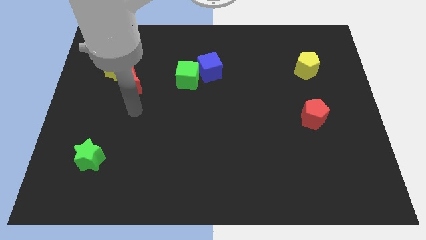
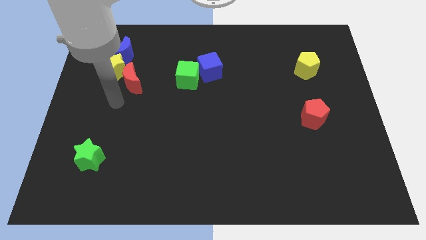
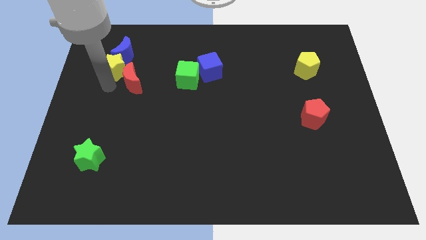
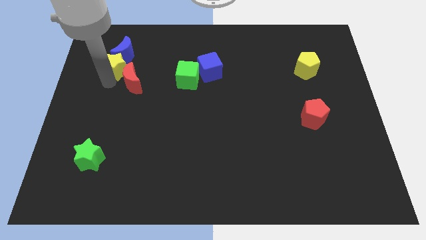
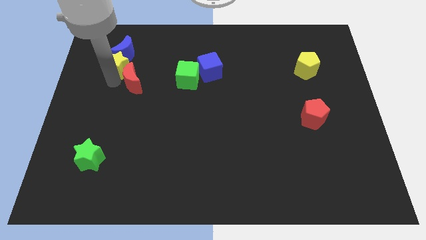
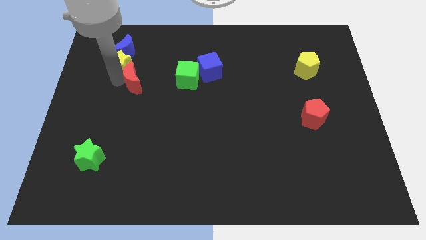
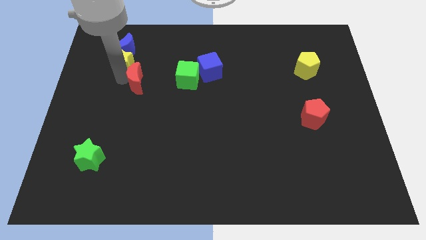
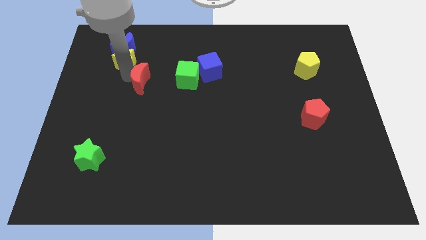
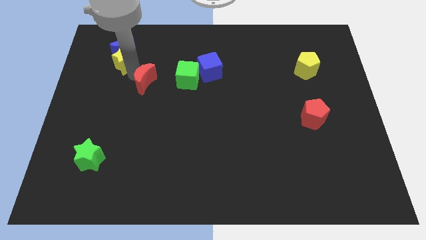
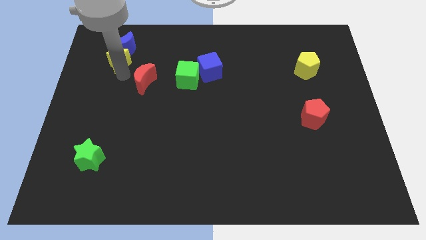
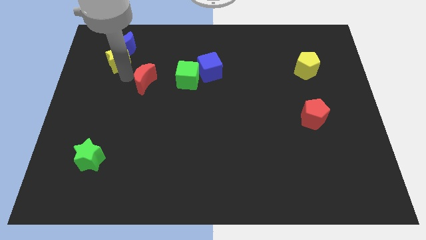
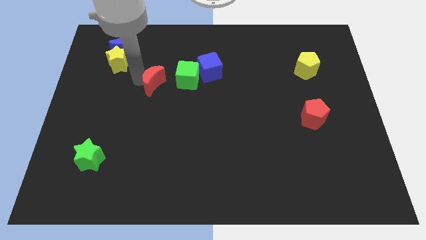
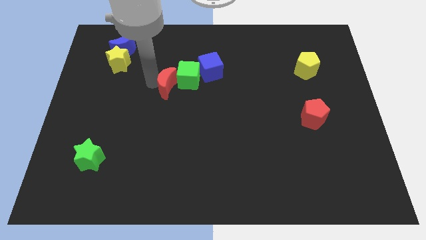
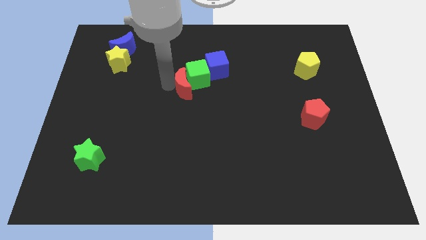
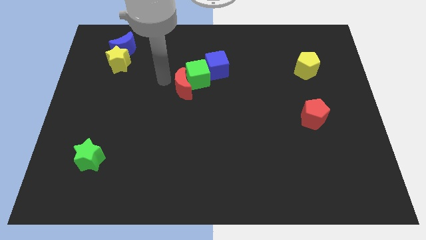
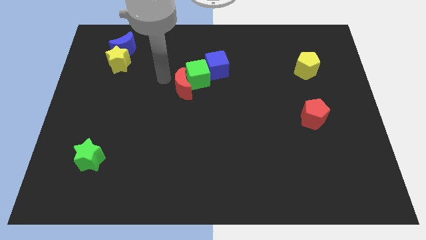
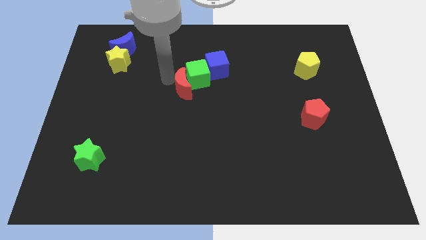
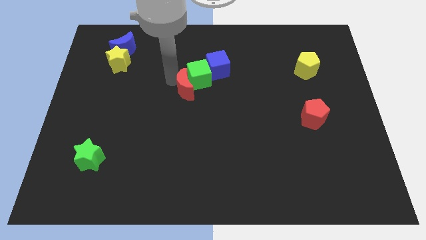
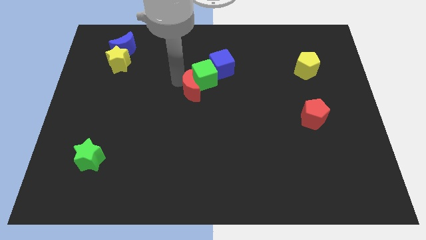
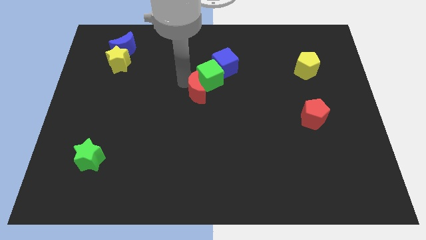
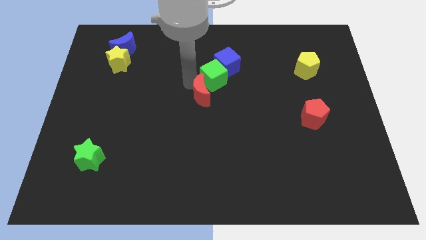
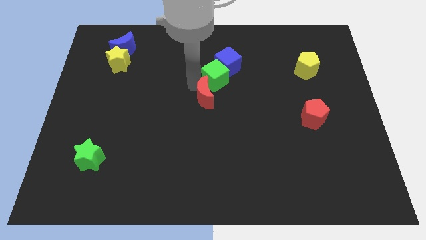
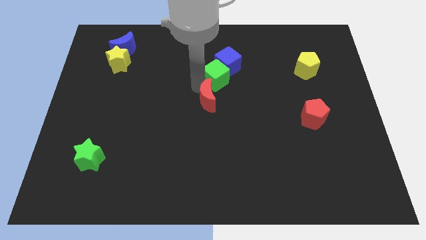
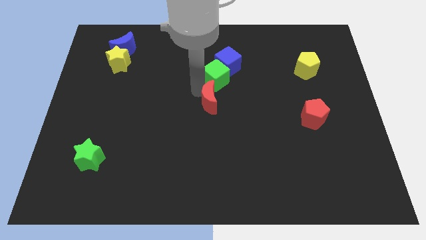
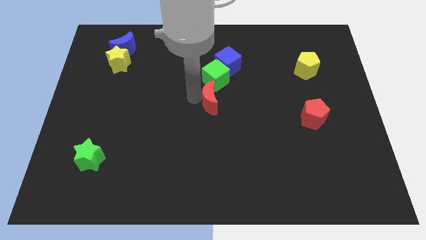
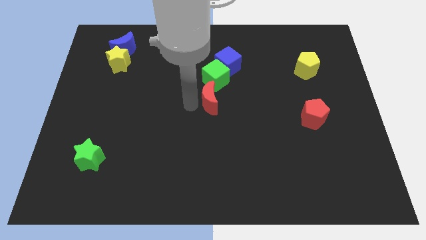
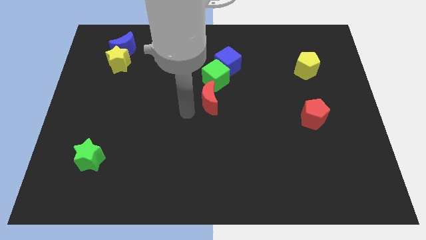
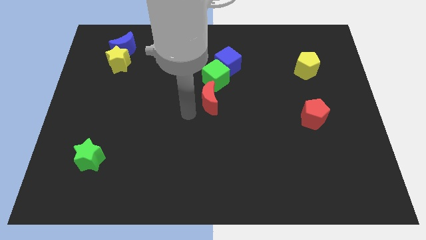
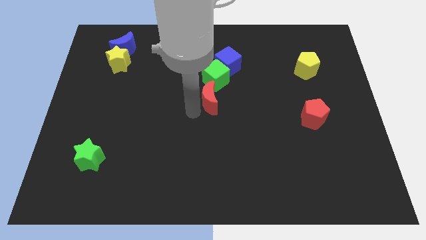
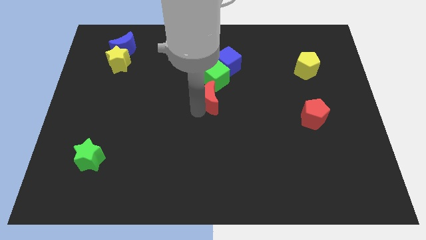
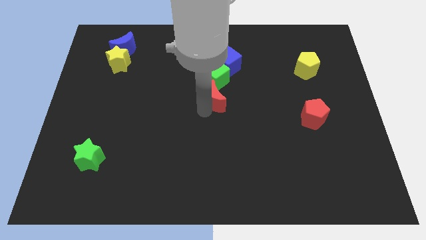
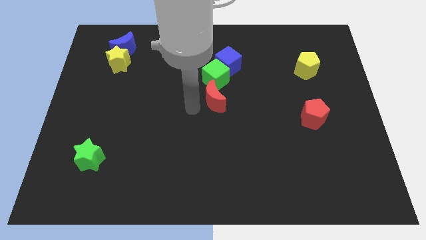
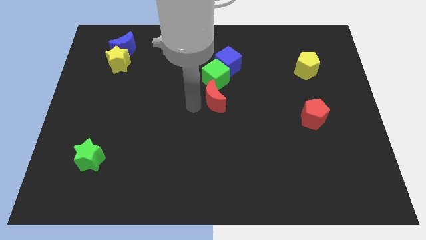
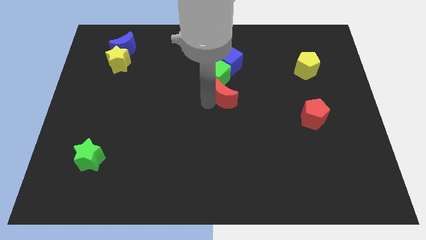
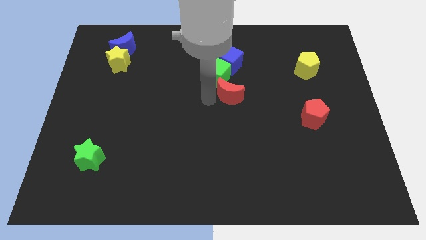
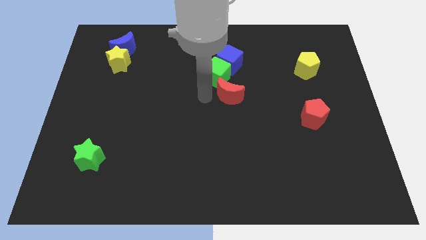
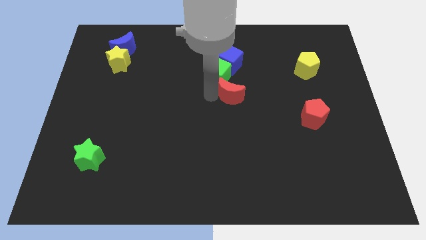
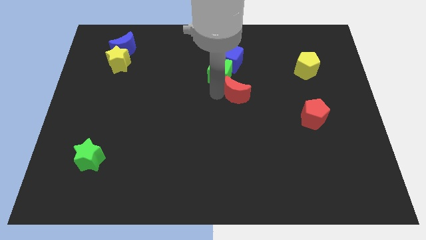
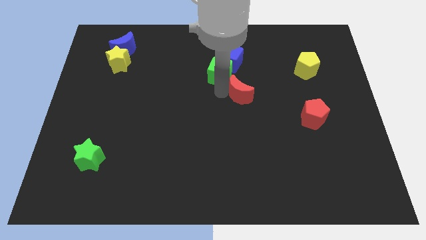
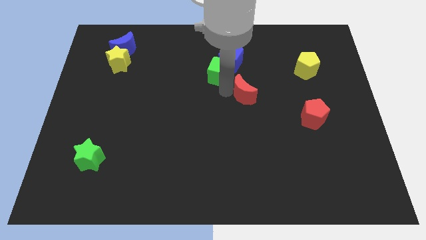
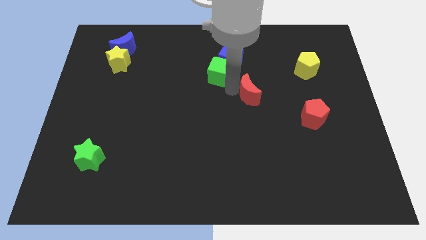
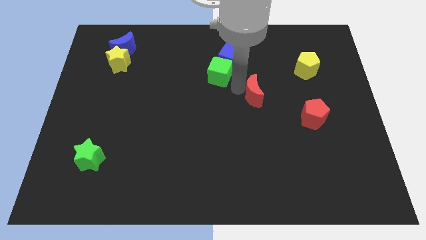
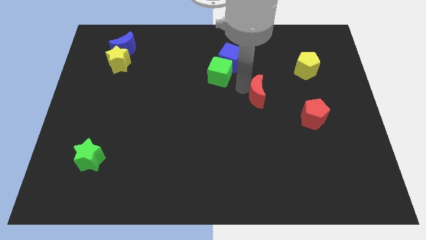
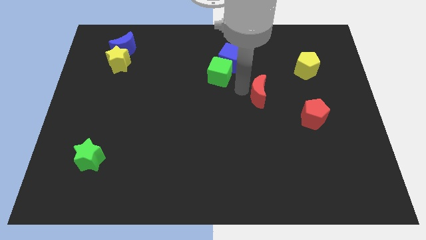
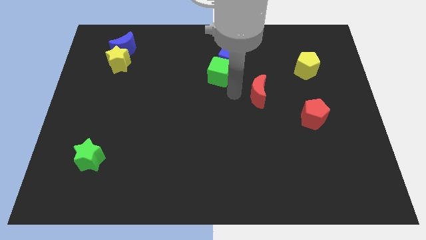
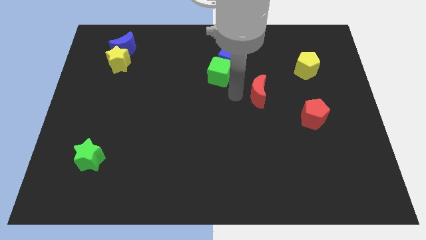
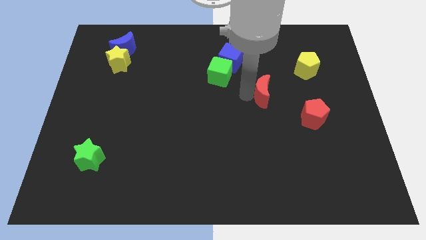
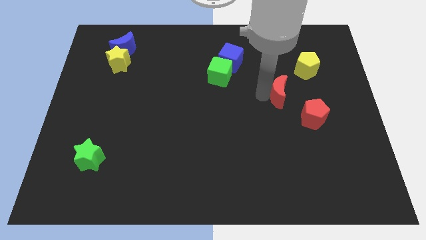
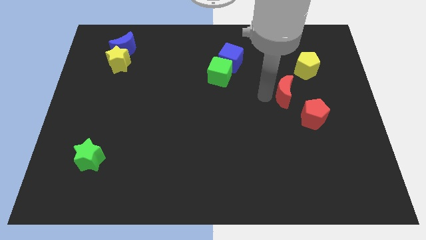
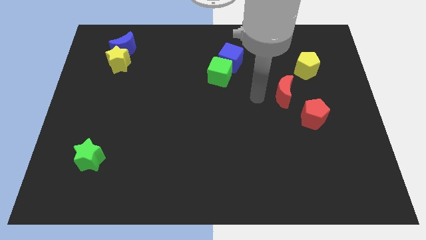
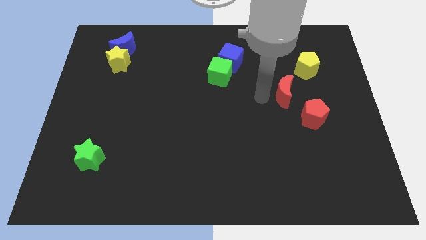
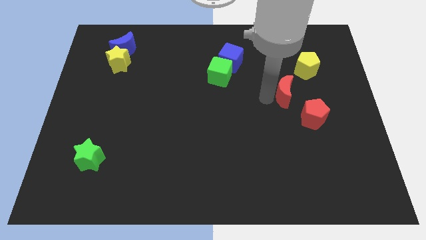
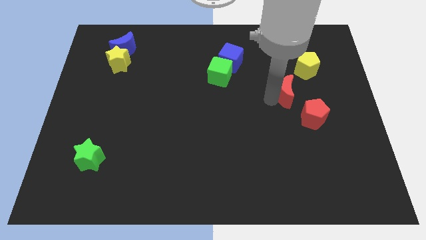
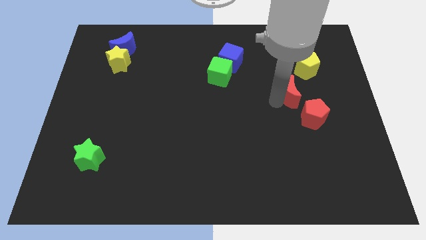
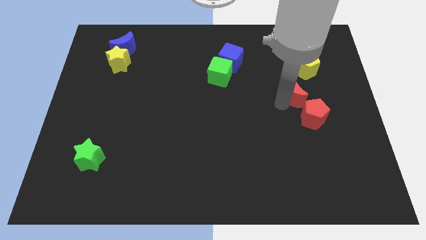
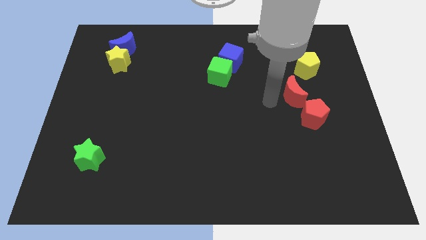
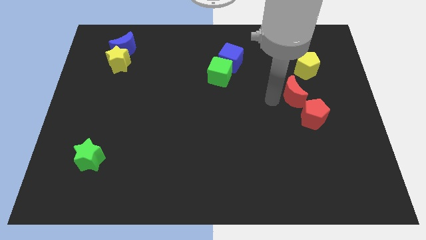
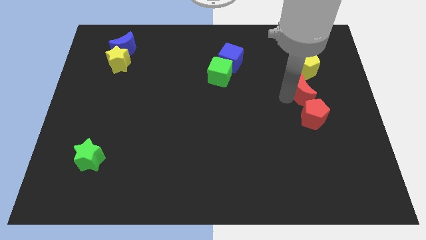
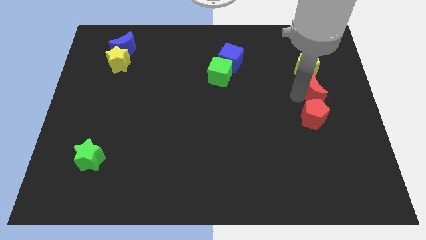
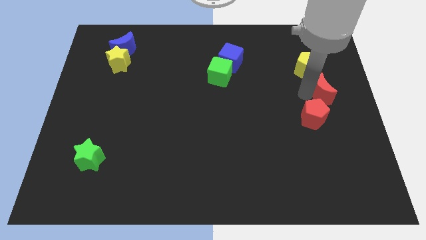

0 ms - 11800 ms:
put the red moon to the right side of the board
